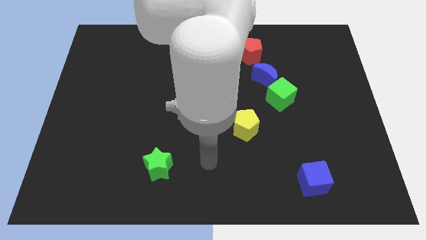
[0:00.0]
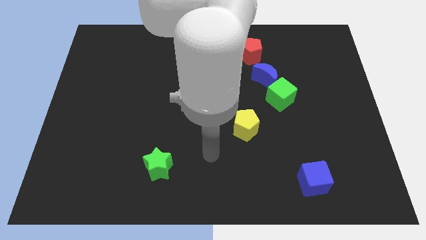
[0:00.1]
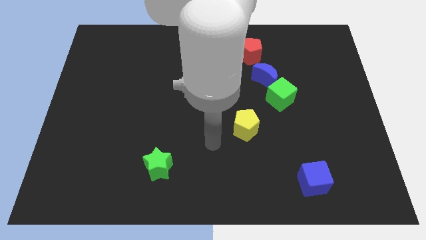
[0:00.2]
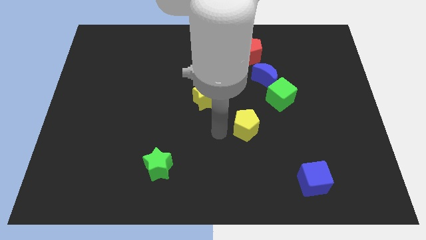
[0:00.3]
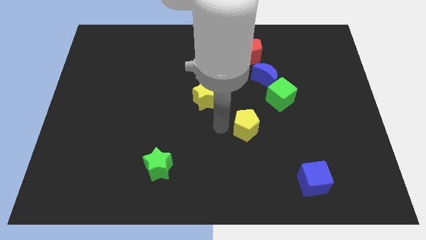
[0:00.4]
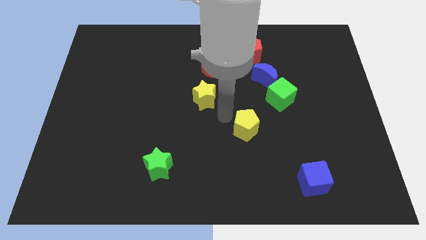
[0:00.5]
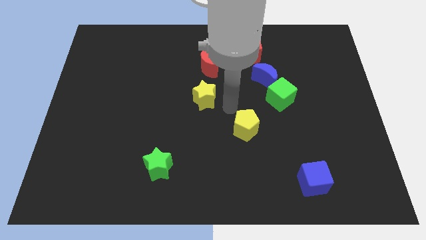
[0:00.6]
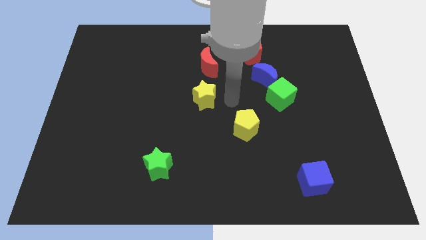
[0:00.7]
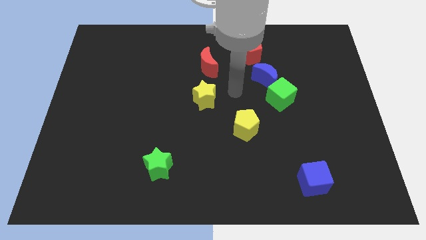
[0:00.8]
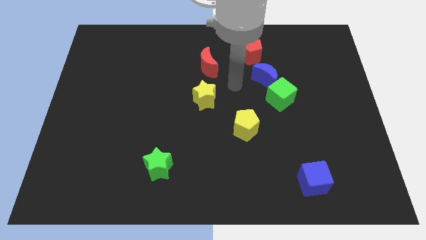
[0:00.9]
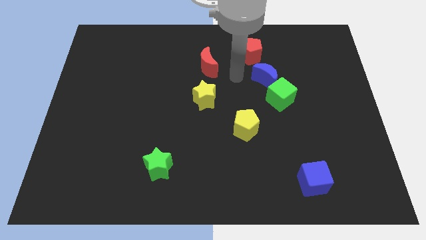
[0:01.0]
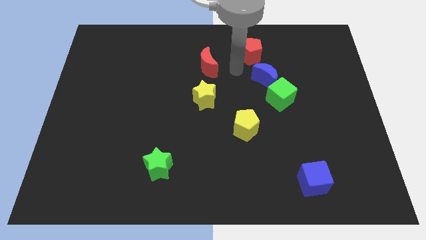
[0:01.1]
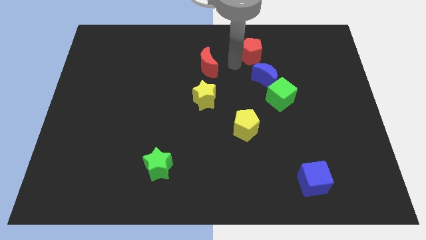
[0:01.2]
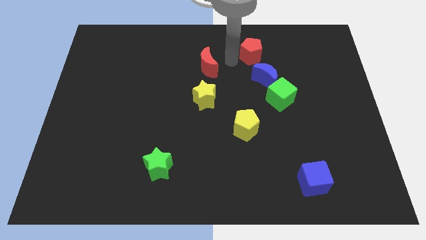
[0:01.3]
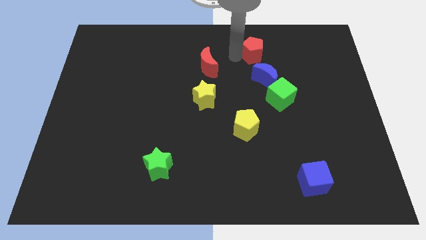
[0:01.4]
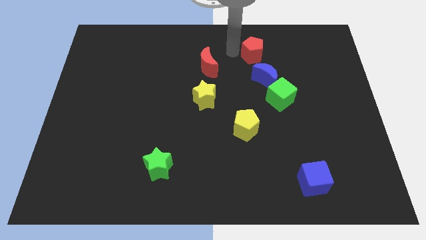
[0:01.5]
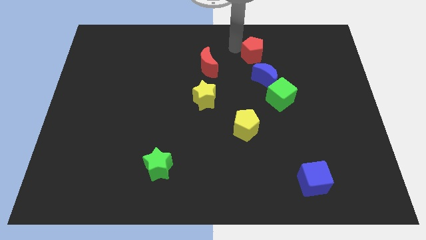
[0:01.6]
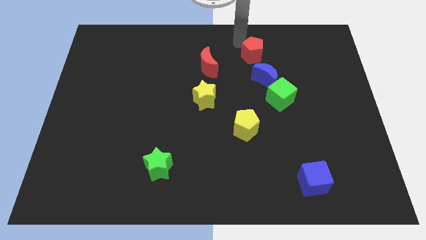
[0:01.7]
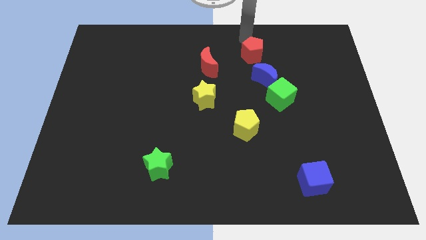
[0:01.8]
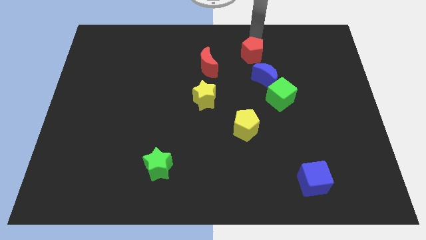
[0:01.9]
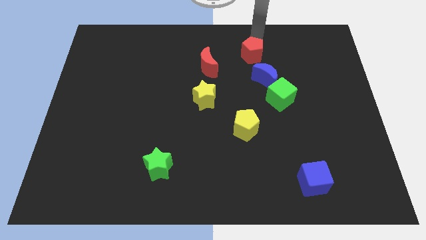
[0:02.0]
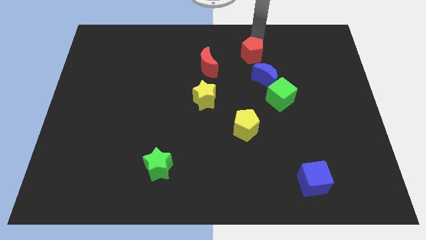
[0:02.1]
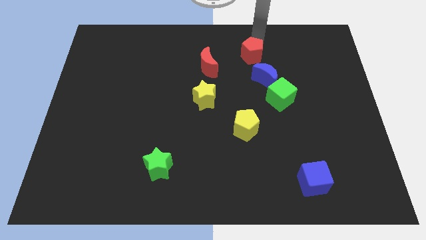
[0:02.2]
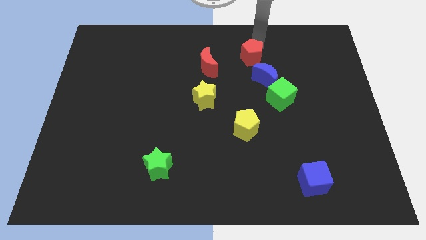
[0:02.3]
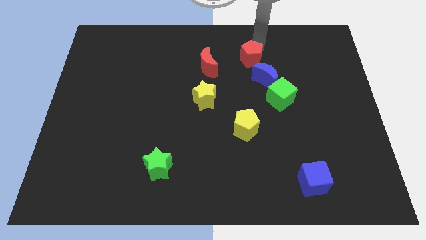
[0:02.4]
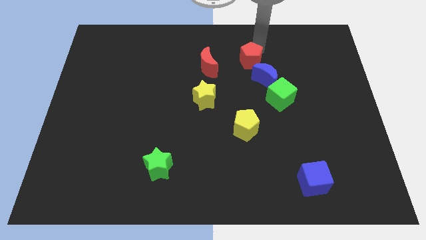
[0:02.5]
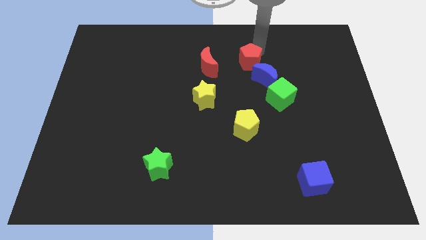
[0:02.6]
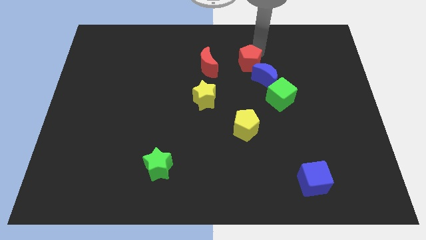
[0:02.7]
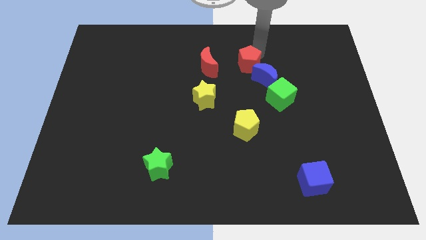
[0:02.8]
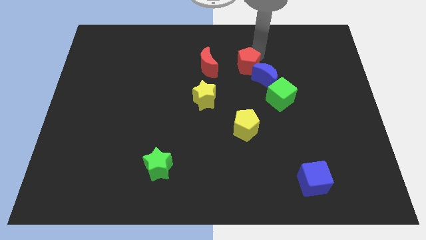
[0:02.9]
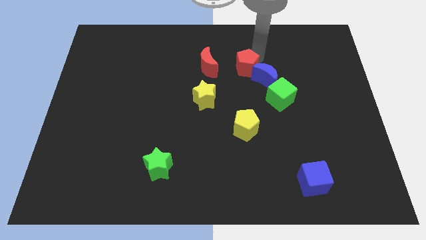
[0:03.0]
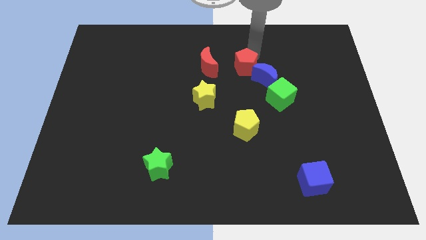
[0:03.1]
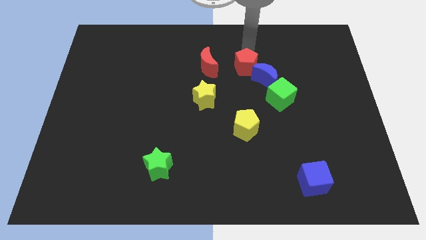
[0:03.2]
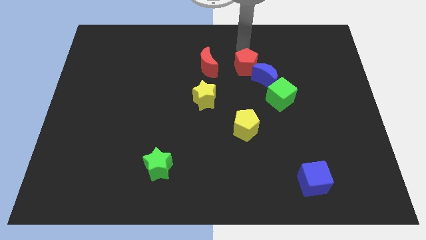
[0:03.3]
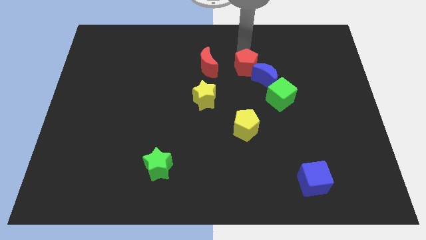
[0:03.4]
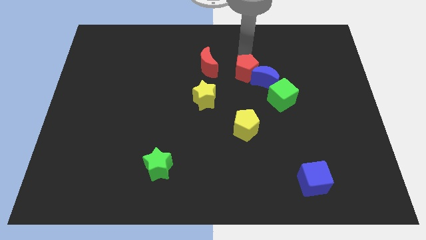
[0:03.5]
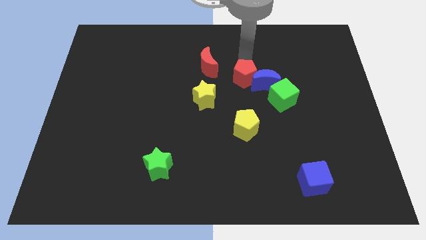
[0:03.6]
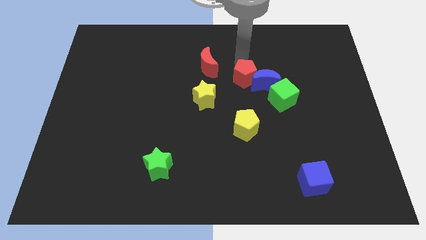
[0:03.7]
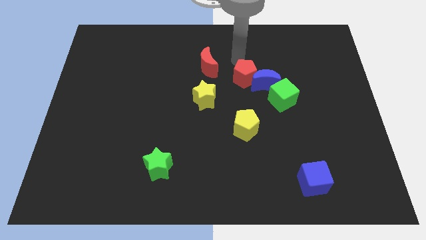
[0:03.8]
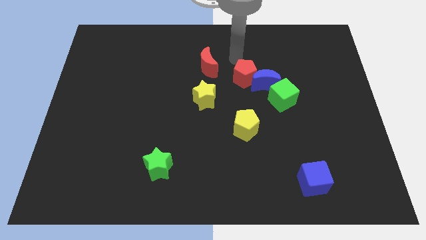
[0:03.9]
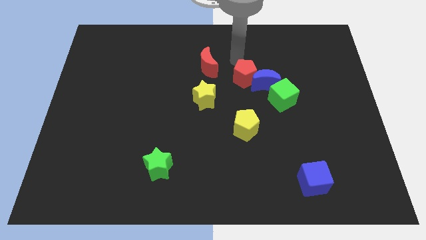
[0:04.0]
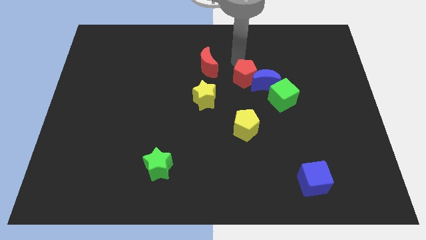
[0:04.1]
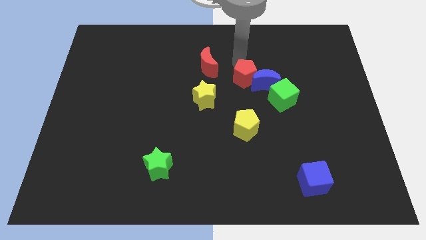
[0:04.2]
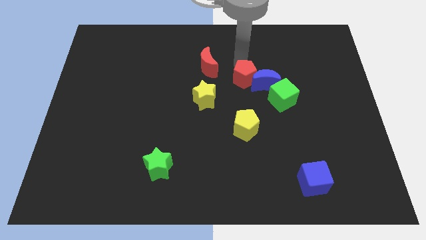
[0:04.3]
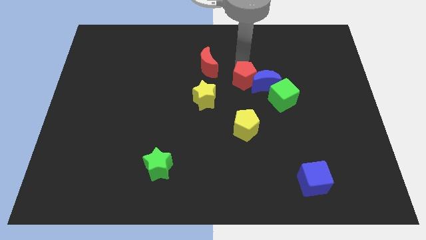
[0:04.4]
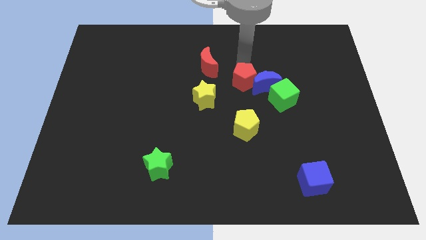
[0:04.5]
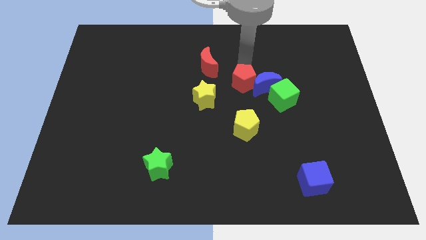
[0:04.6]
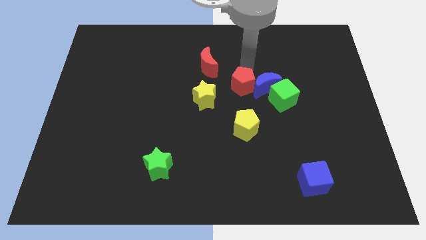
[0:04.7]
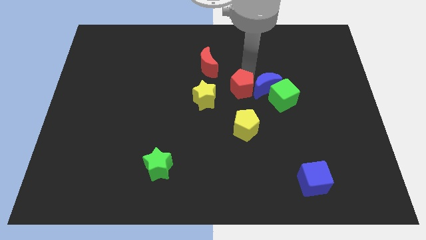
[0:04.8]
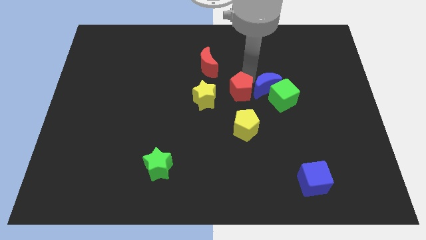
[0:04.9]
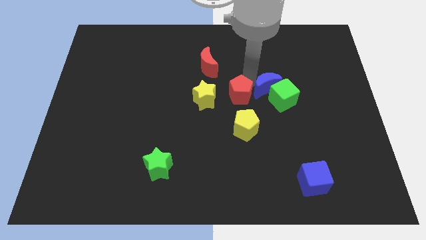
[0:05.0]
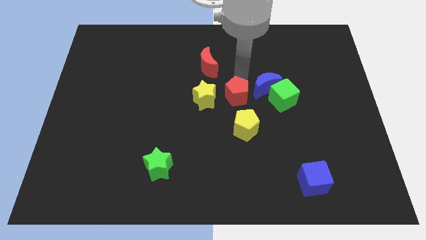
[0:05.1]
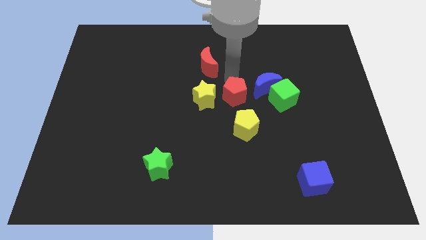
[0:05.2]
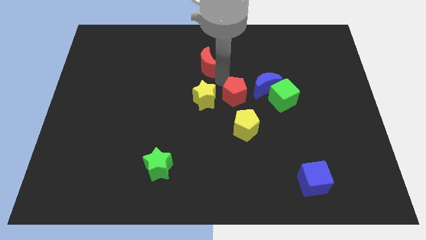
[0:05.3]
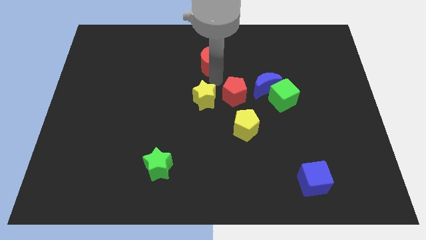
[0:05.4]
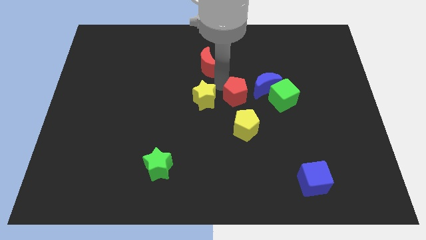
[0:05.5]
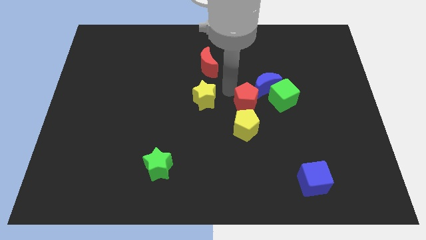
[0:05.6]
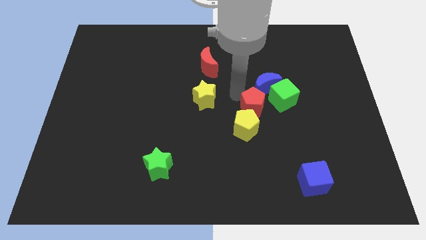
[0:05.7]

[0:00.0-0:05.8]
put the red pentagon below the blue moon

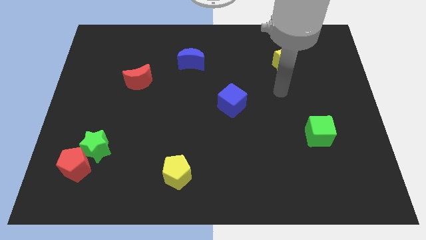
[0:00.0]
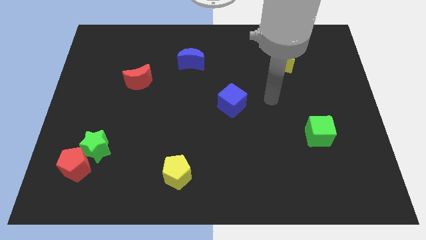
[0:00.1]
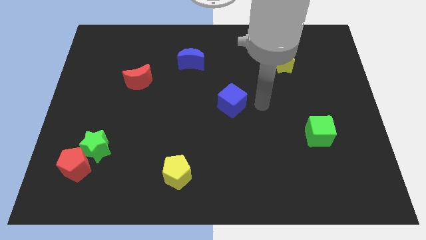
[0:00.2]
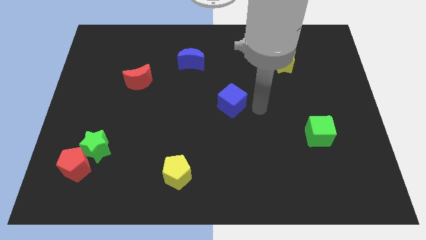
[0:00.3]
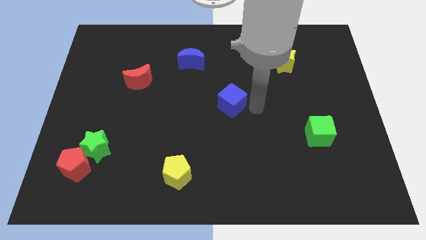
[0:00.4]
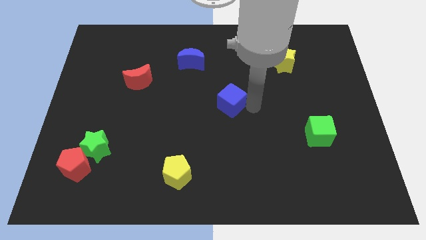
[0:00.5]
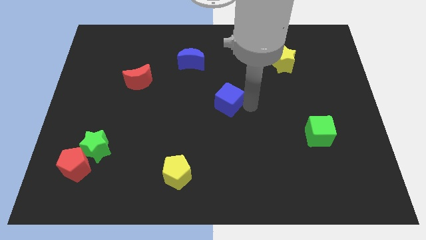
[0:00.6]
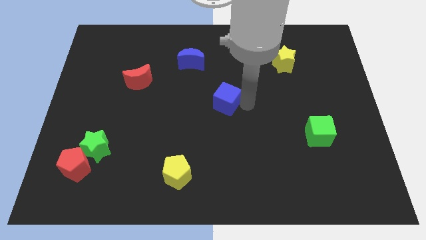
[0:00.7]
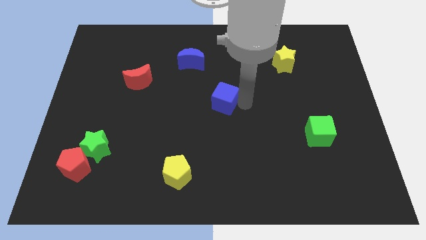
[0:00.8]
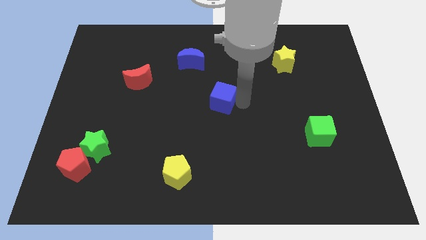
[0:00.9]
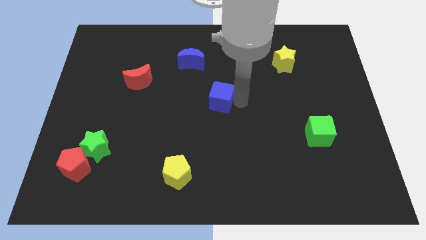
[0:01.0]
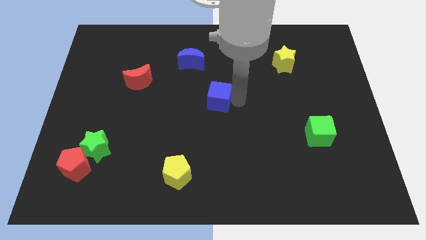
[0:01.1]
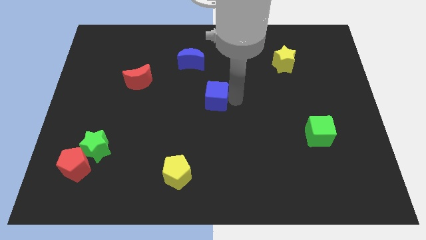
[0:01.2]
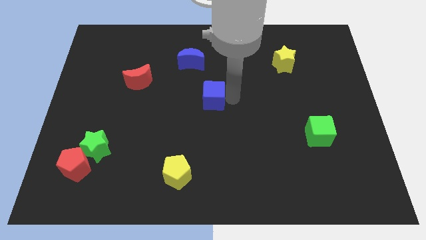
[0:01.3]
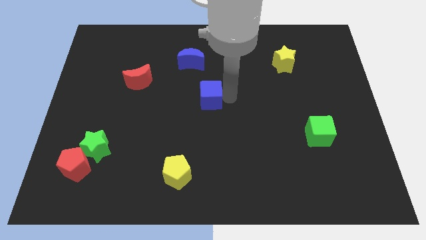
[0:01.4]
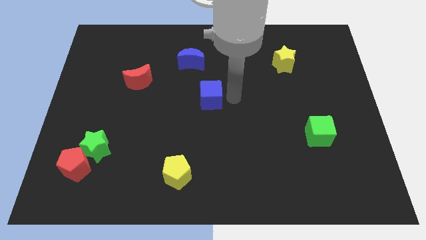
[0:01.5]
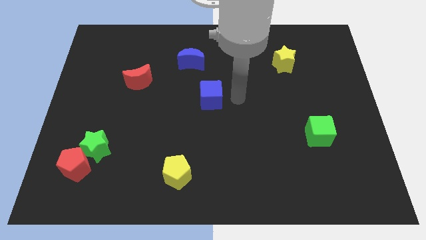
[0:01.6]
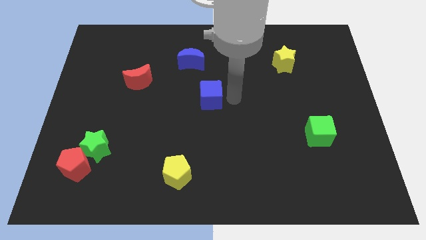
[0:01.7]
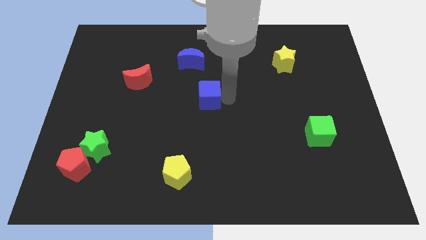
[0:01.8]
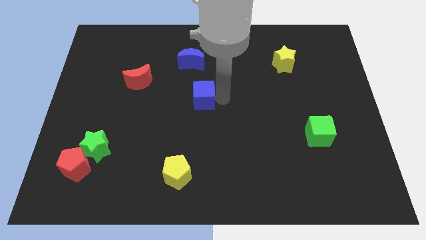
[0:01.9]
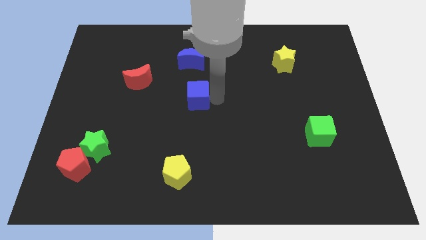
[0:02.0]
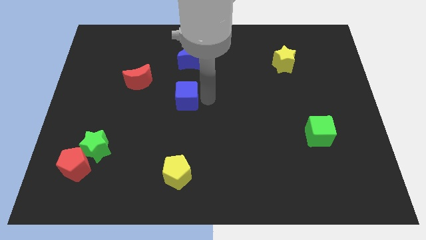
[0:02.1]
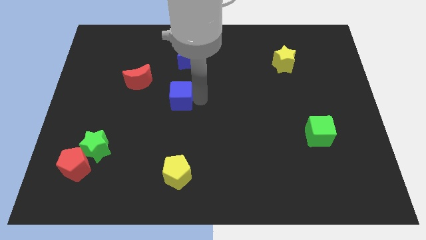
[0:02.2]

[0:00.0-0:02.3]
move the blue cube to the bottom right side of the red moon

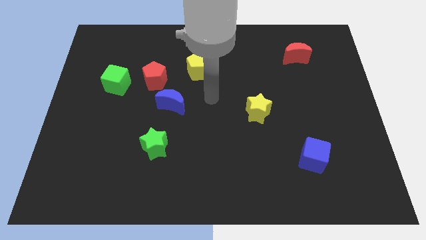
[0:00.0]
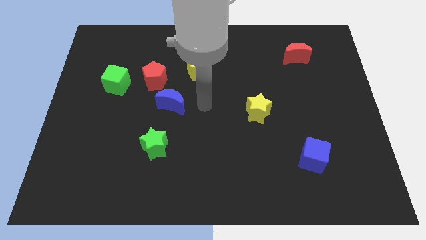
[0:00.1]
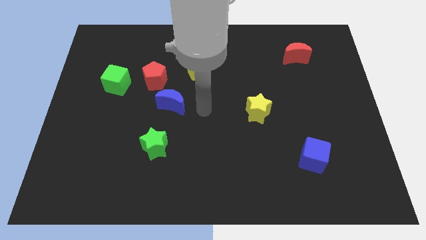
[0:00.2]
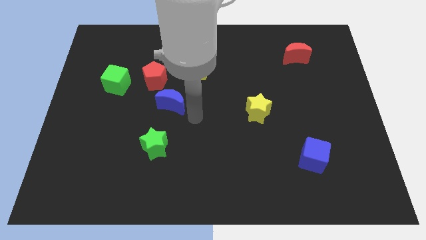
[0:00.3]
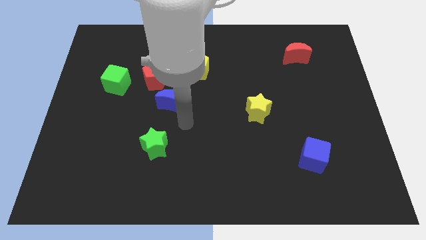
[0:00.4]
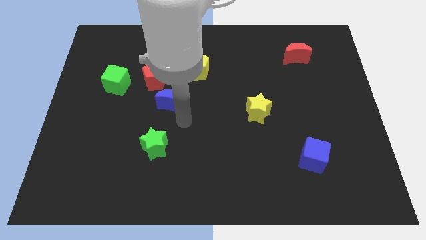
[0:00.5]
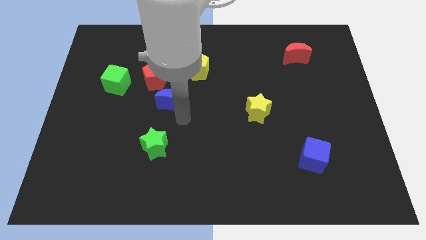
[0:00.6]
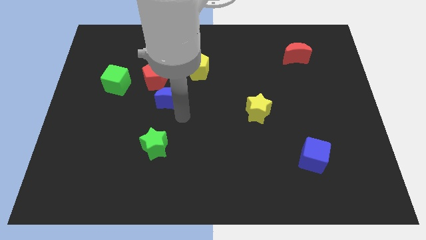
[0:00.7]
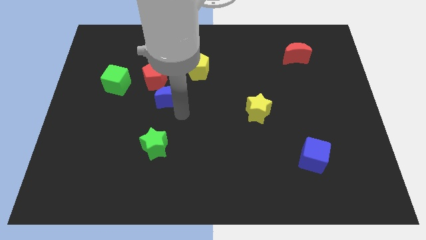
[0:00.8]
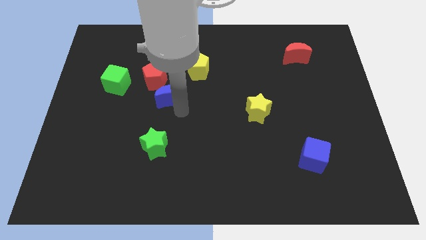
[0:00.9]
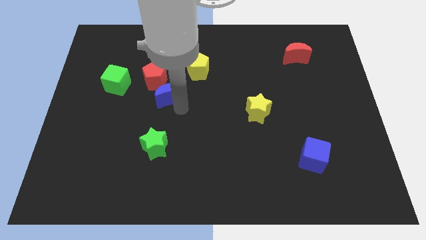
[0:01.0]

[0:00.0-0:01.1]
push the blue moon right of the green cube
